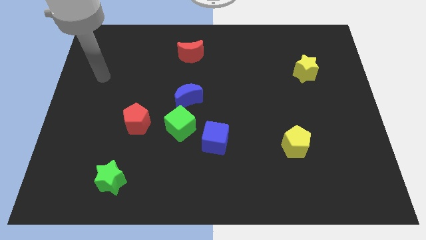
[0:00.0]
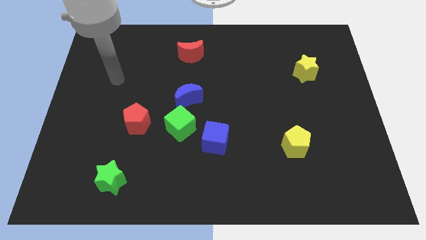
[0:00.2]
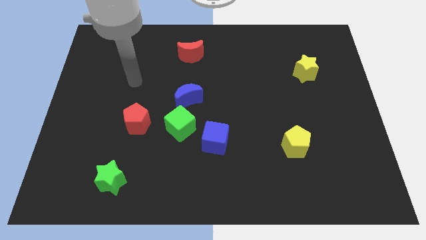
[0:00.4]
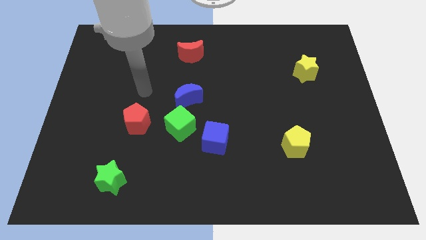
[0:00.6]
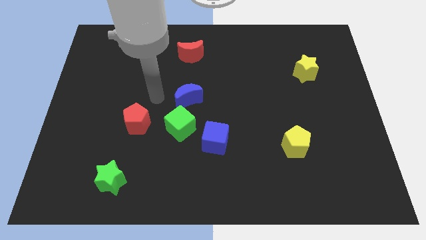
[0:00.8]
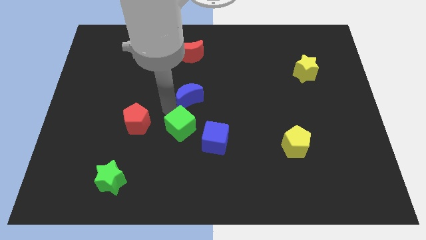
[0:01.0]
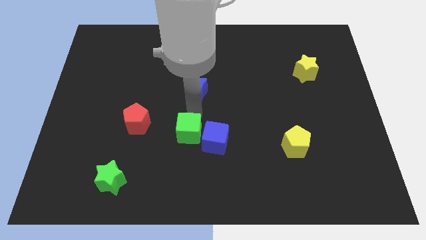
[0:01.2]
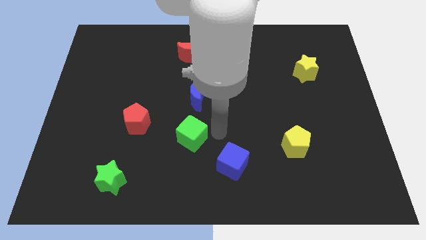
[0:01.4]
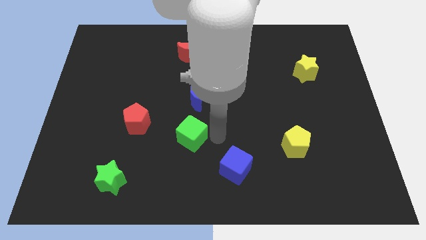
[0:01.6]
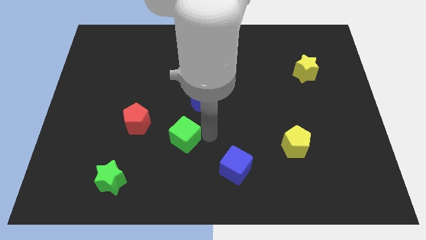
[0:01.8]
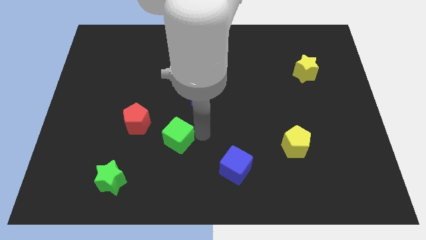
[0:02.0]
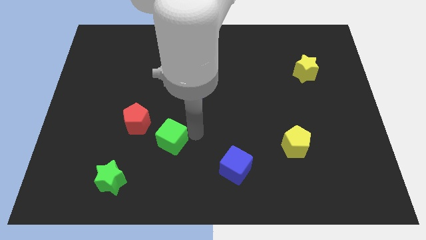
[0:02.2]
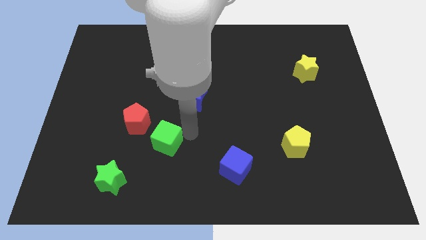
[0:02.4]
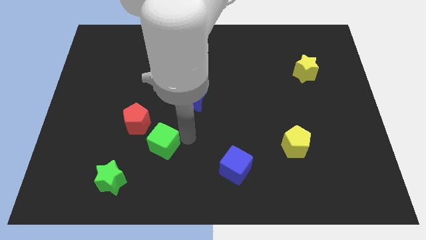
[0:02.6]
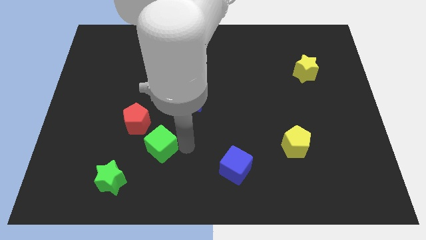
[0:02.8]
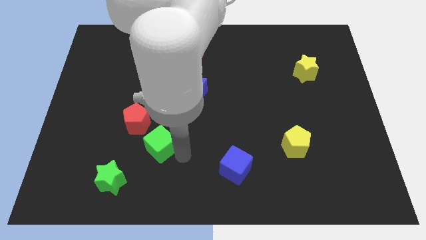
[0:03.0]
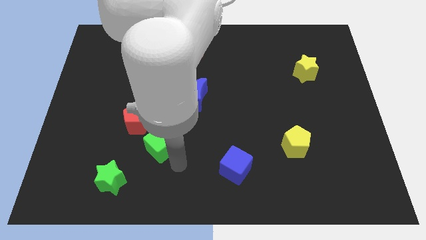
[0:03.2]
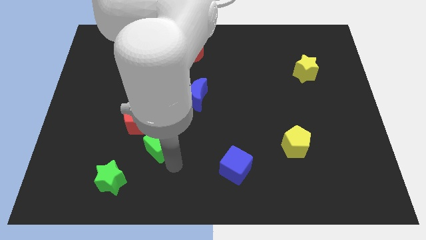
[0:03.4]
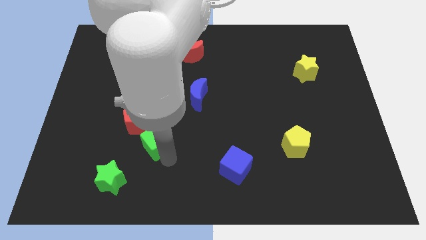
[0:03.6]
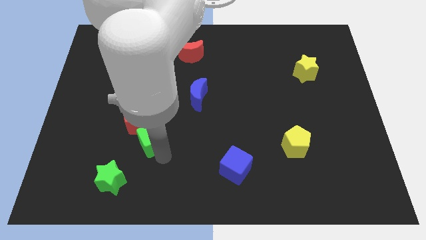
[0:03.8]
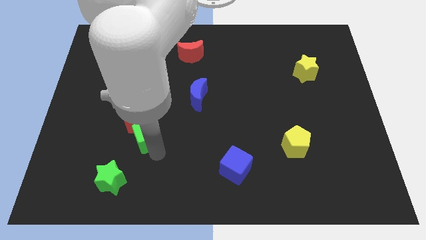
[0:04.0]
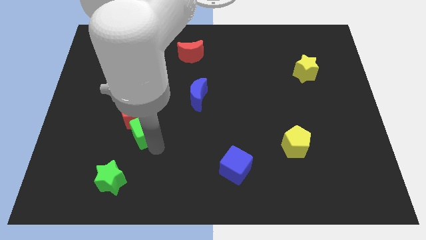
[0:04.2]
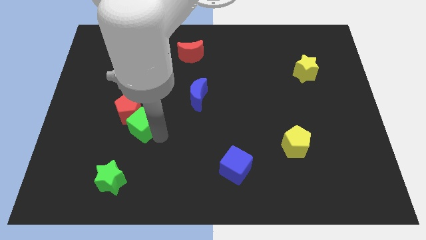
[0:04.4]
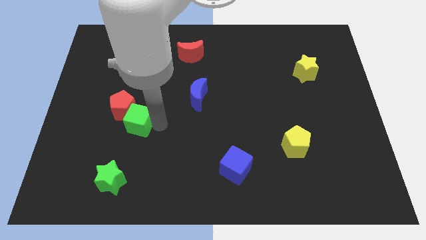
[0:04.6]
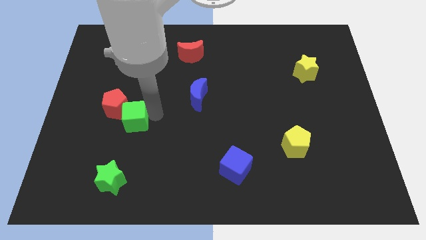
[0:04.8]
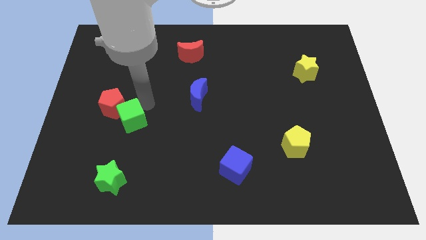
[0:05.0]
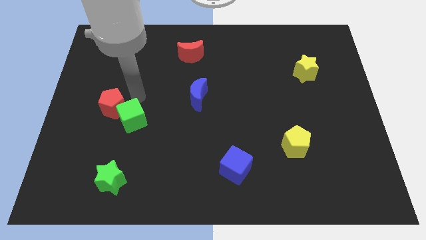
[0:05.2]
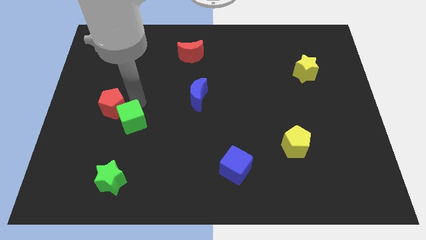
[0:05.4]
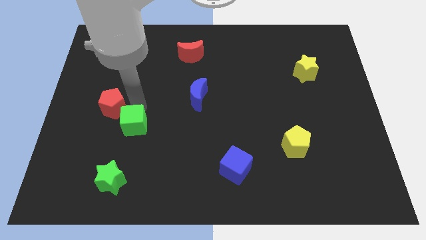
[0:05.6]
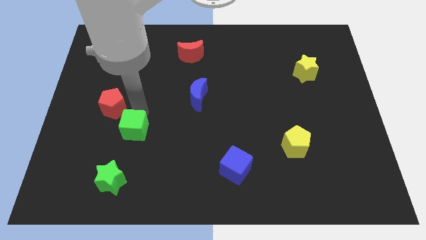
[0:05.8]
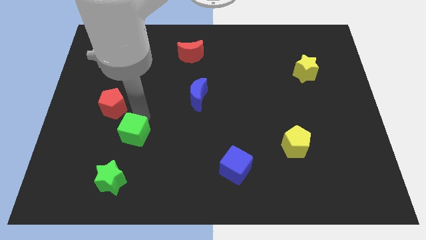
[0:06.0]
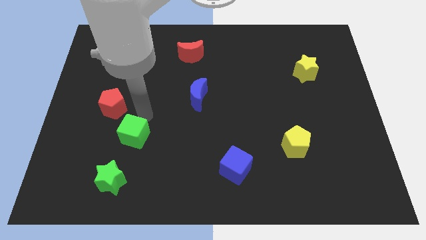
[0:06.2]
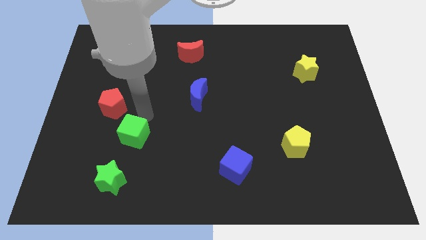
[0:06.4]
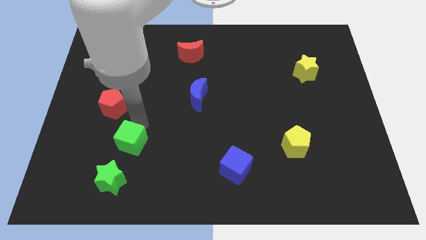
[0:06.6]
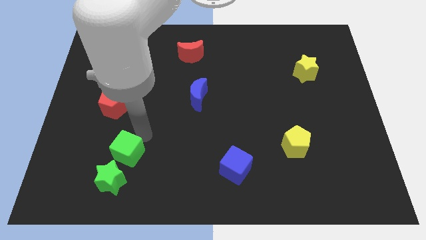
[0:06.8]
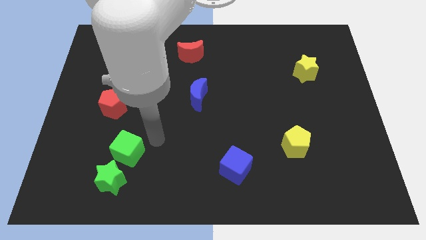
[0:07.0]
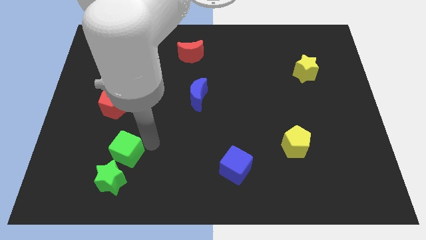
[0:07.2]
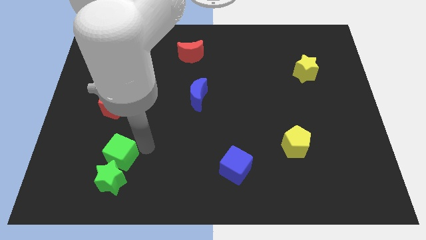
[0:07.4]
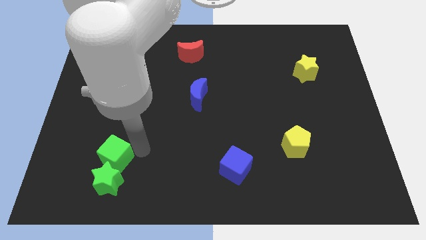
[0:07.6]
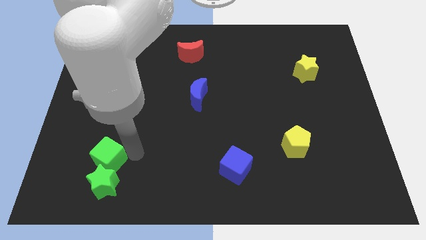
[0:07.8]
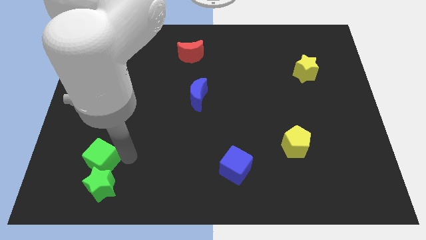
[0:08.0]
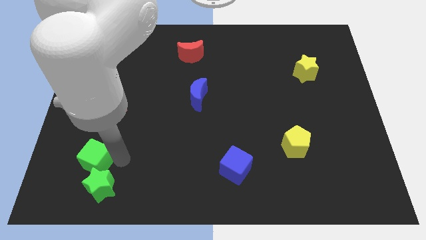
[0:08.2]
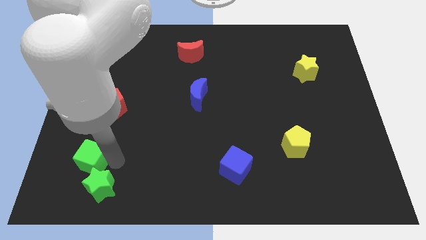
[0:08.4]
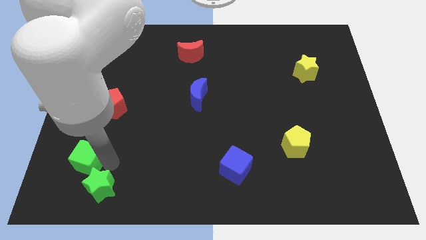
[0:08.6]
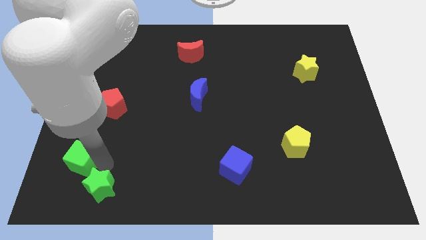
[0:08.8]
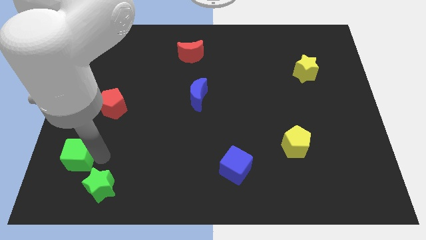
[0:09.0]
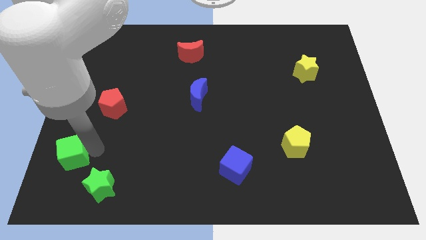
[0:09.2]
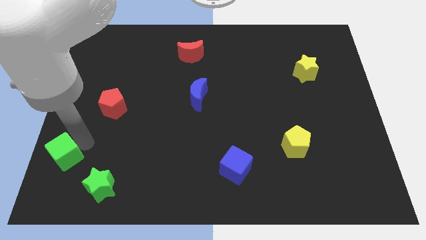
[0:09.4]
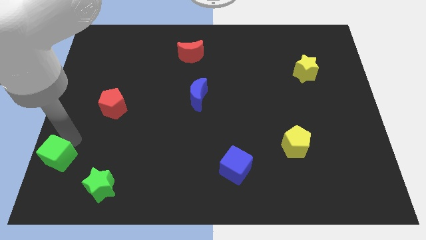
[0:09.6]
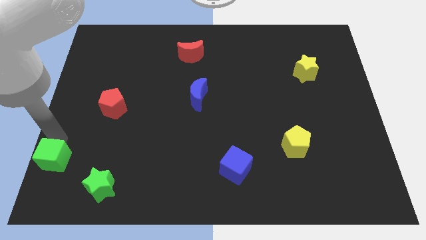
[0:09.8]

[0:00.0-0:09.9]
move the green cube to the lower left corner

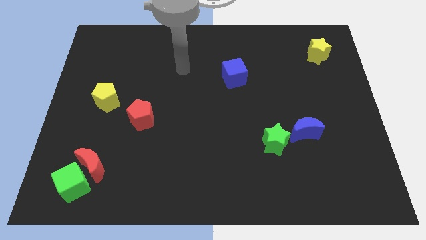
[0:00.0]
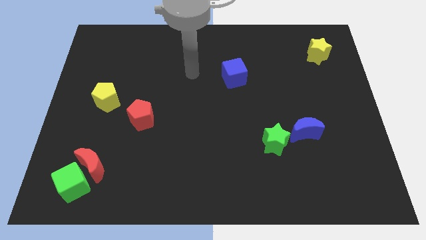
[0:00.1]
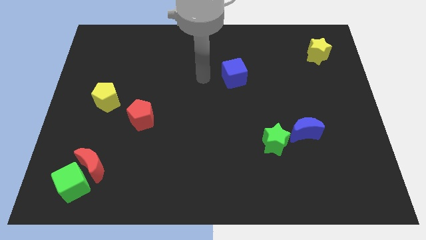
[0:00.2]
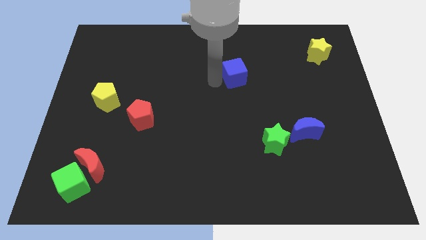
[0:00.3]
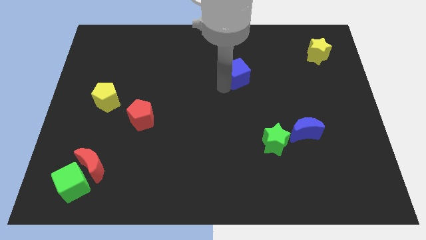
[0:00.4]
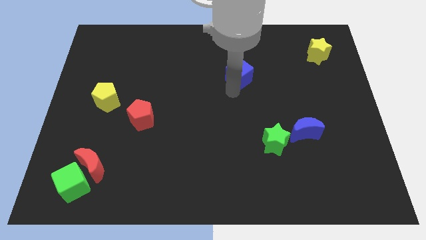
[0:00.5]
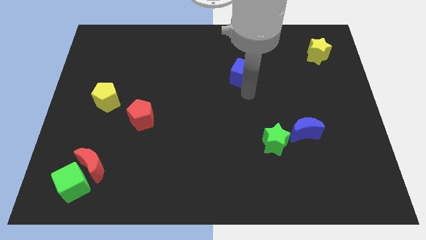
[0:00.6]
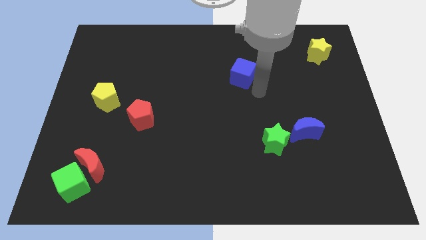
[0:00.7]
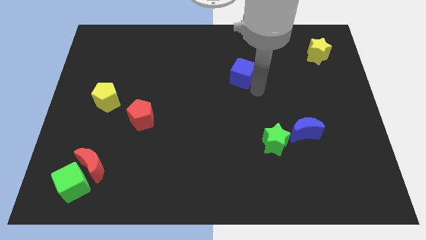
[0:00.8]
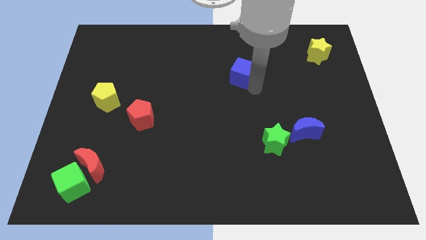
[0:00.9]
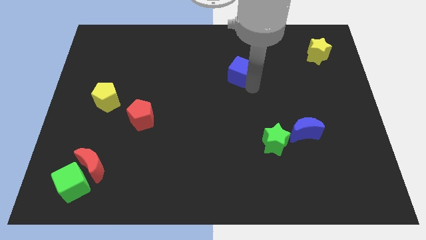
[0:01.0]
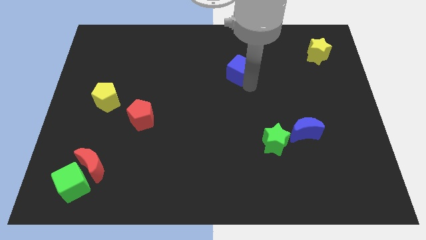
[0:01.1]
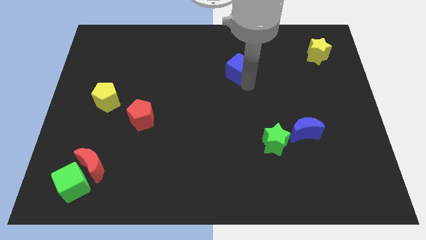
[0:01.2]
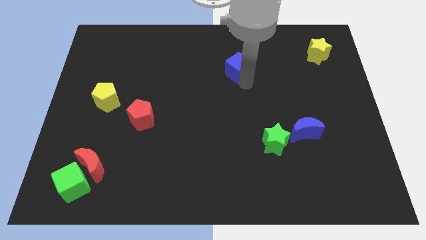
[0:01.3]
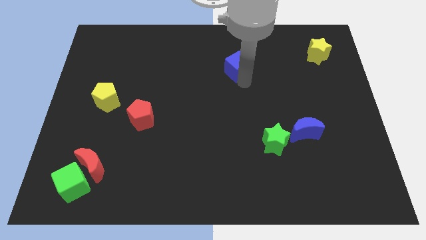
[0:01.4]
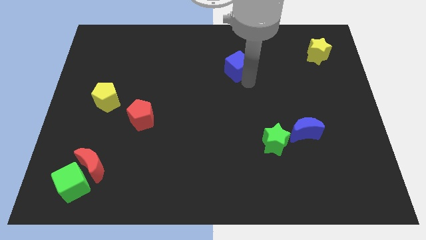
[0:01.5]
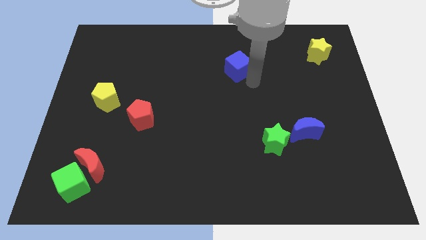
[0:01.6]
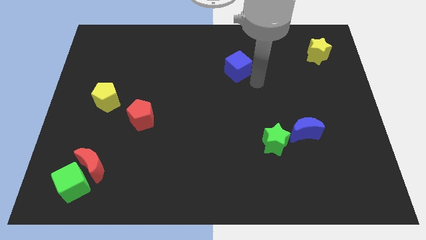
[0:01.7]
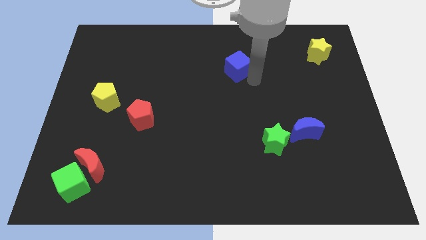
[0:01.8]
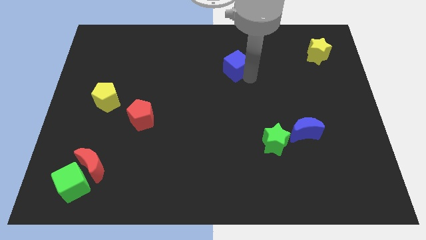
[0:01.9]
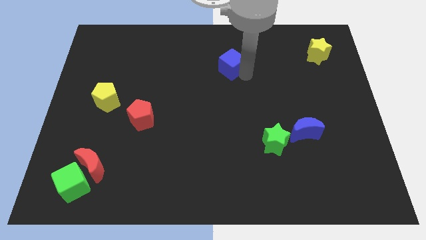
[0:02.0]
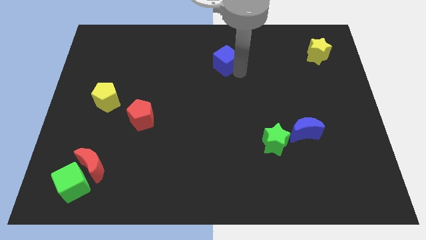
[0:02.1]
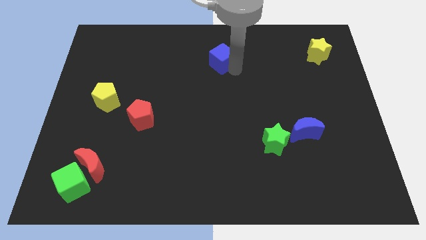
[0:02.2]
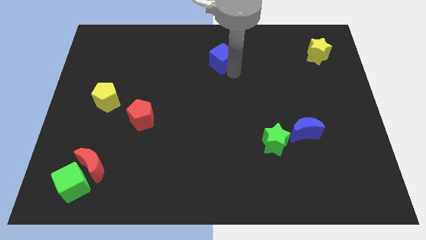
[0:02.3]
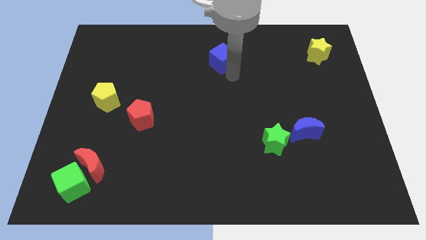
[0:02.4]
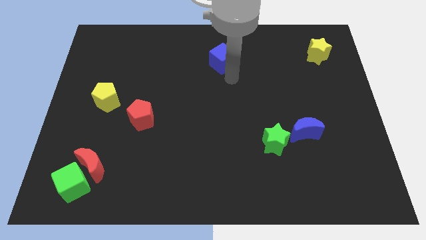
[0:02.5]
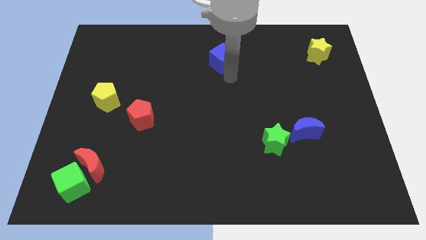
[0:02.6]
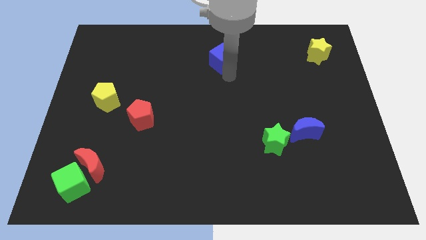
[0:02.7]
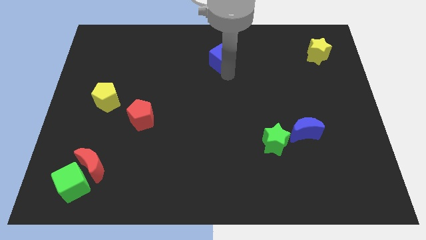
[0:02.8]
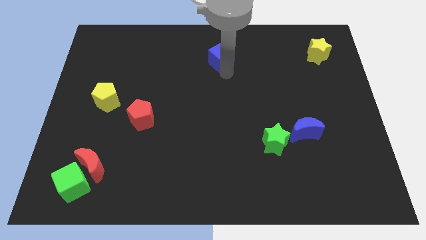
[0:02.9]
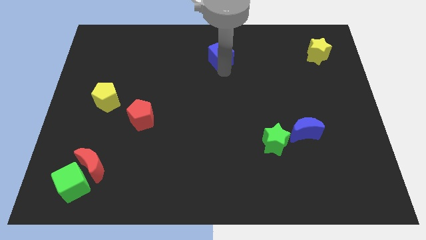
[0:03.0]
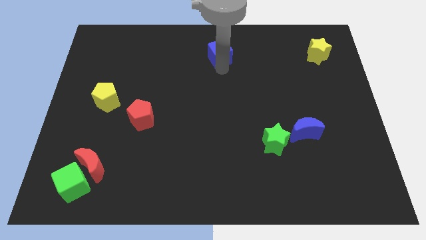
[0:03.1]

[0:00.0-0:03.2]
put the blue cube to the top side
